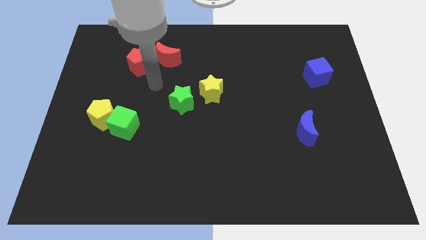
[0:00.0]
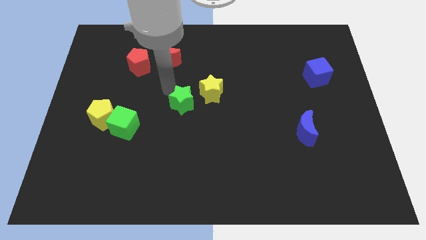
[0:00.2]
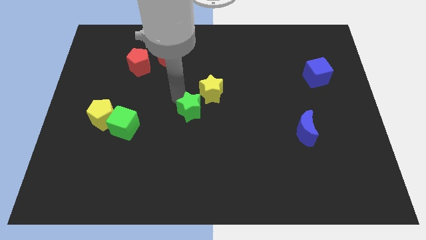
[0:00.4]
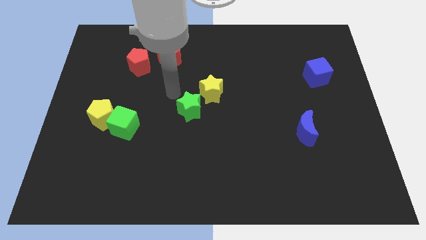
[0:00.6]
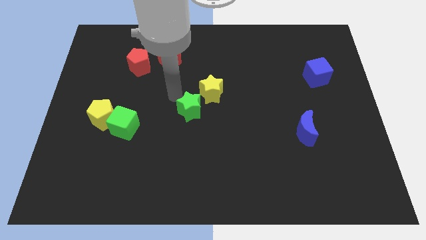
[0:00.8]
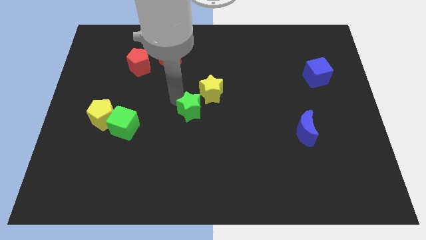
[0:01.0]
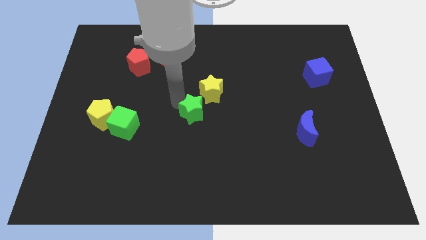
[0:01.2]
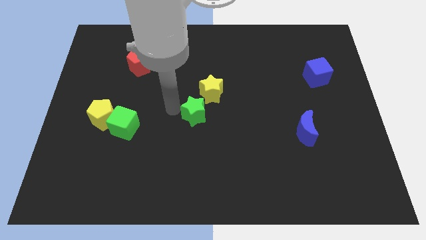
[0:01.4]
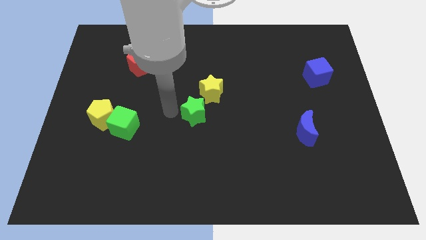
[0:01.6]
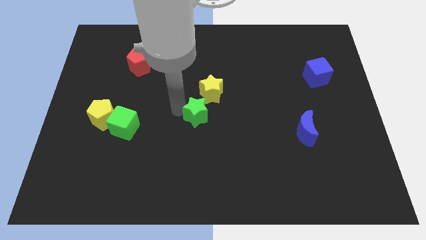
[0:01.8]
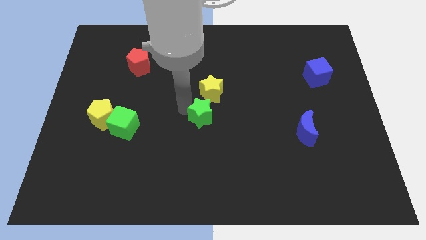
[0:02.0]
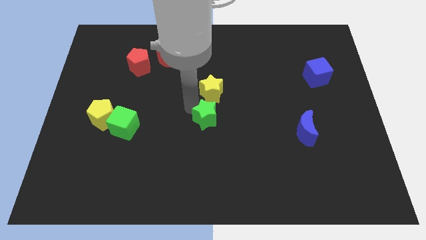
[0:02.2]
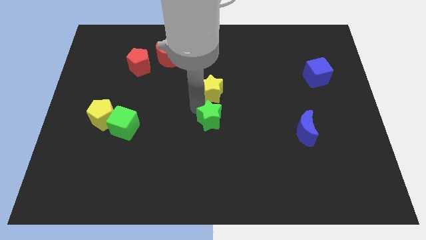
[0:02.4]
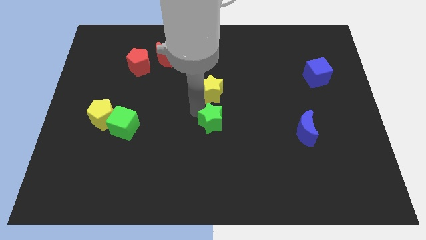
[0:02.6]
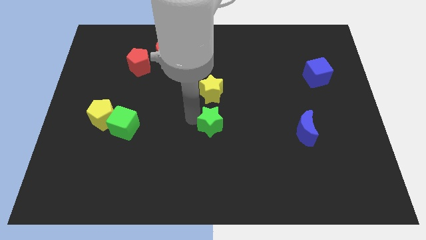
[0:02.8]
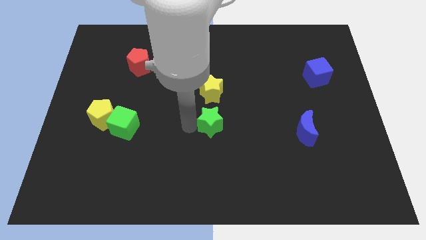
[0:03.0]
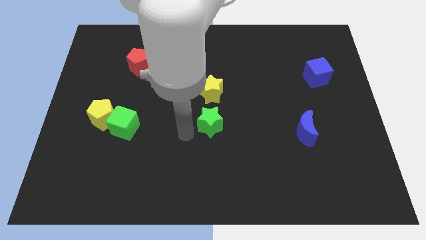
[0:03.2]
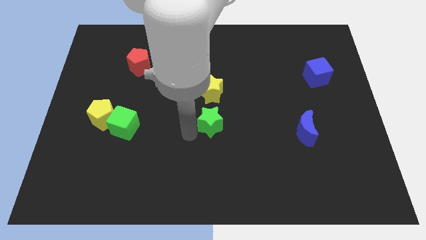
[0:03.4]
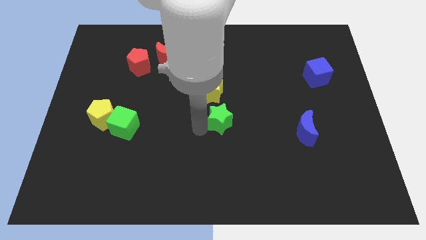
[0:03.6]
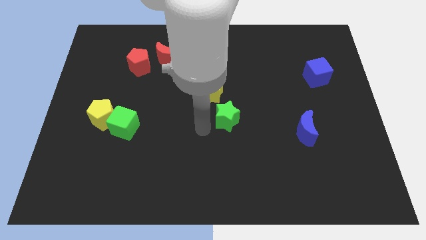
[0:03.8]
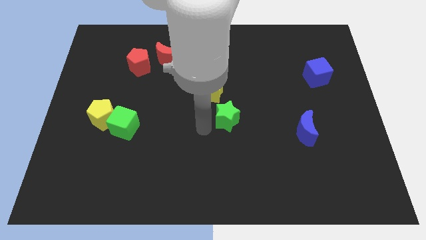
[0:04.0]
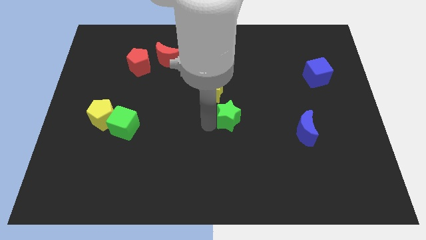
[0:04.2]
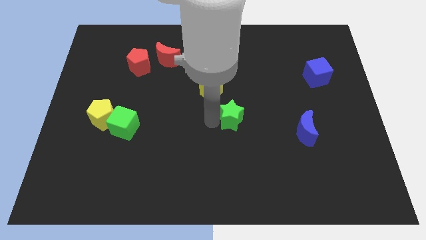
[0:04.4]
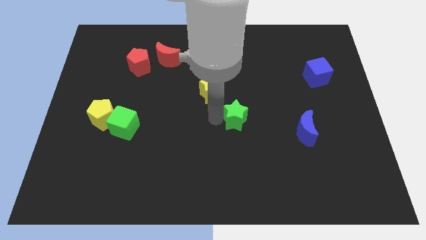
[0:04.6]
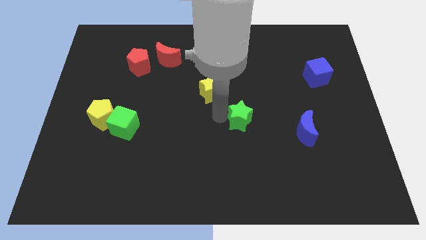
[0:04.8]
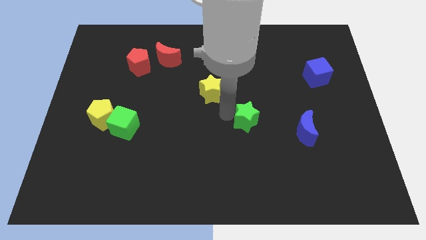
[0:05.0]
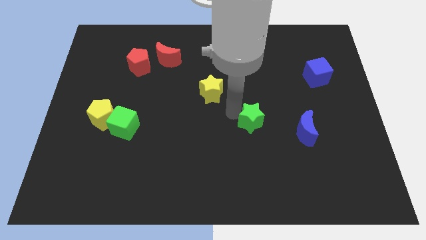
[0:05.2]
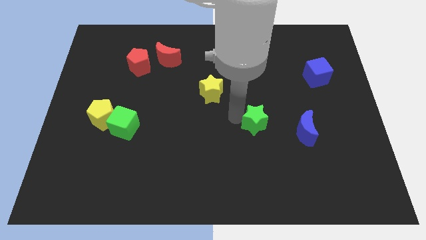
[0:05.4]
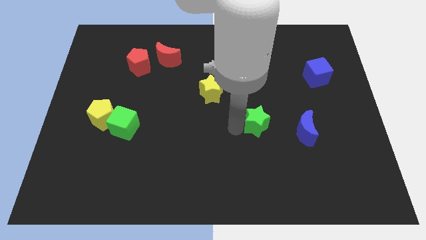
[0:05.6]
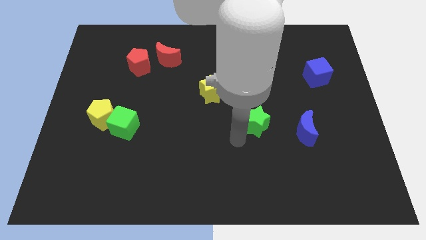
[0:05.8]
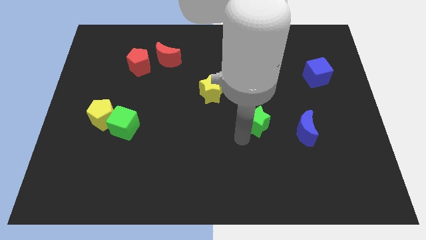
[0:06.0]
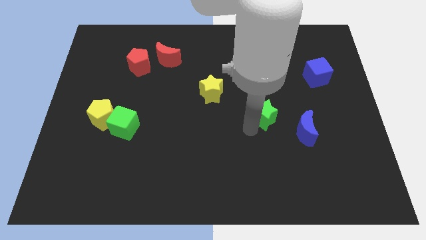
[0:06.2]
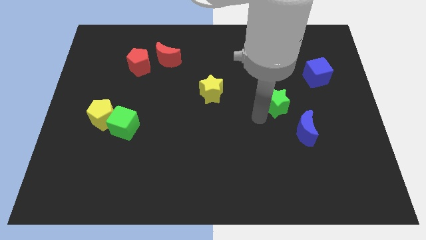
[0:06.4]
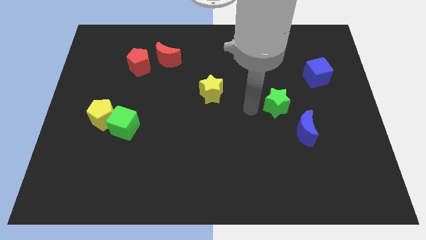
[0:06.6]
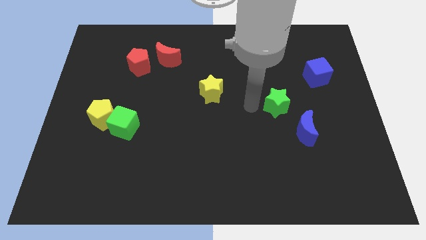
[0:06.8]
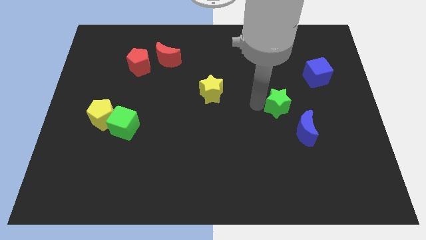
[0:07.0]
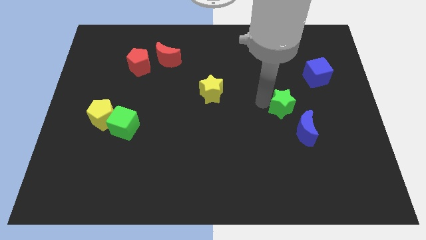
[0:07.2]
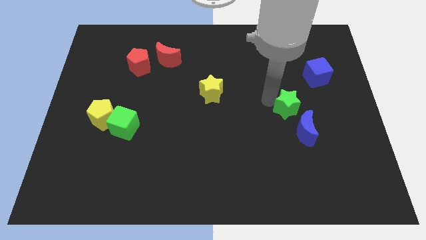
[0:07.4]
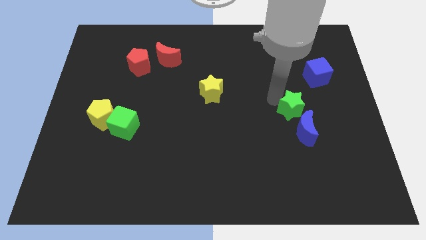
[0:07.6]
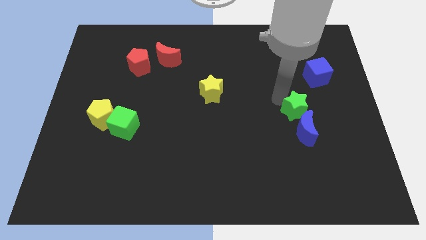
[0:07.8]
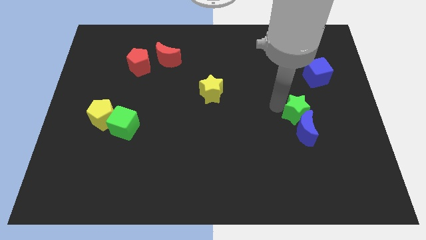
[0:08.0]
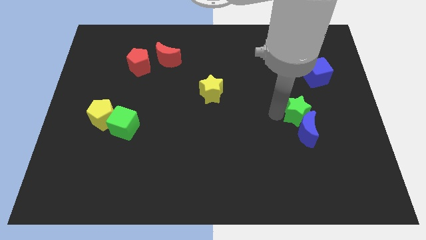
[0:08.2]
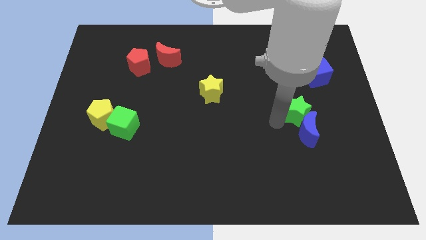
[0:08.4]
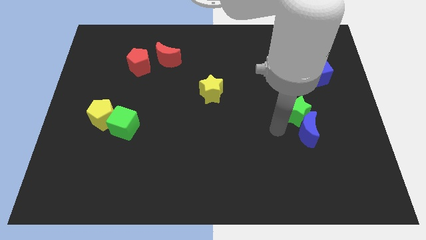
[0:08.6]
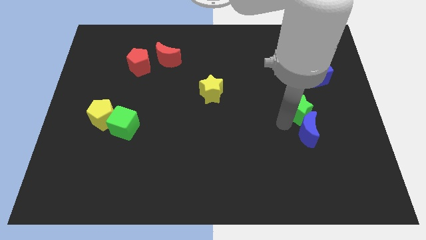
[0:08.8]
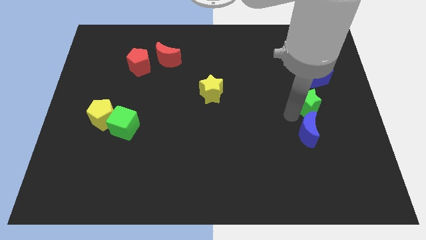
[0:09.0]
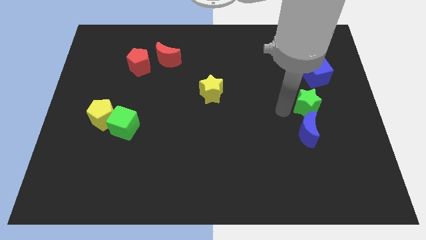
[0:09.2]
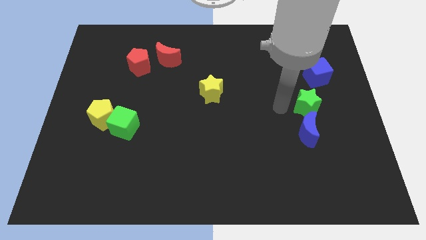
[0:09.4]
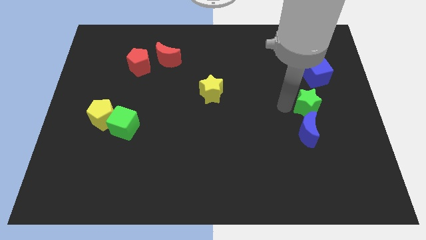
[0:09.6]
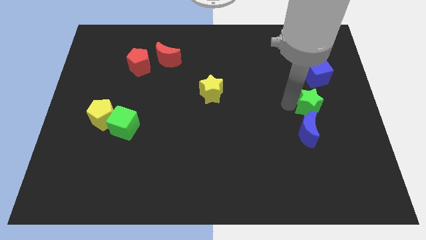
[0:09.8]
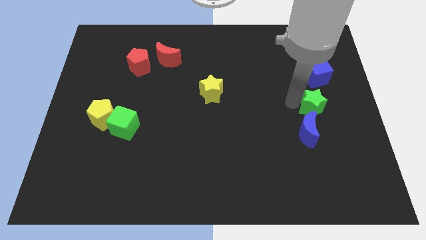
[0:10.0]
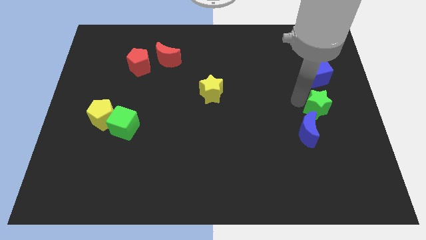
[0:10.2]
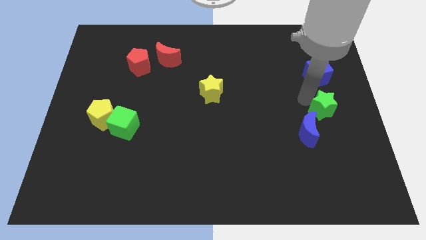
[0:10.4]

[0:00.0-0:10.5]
slide the green star to the right side of the board

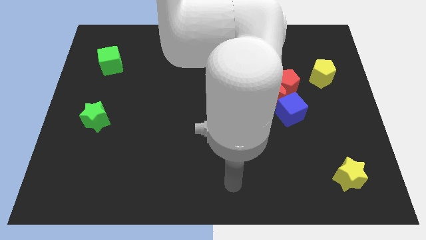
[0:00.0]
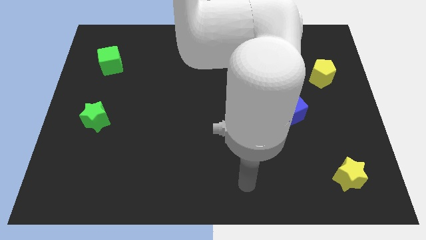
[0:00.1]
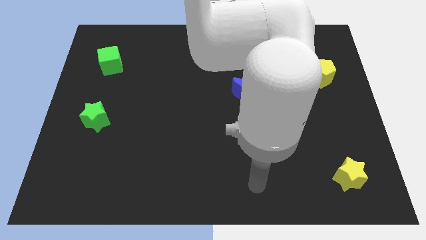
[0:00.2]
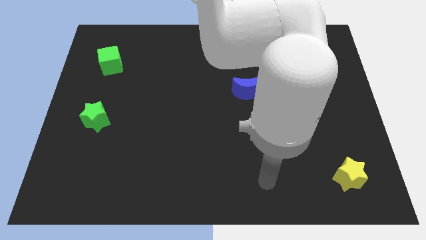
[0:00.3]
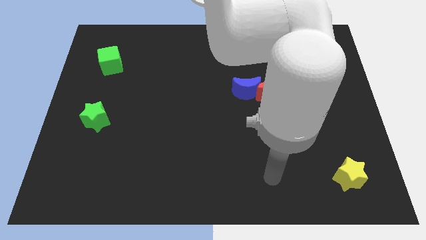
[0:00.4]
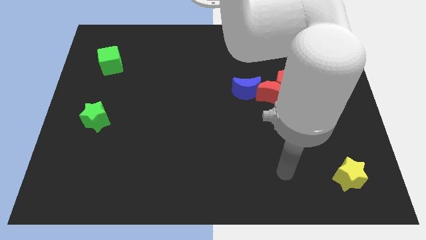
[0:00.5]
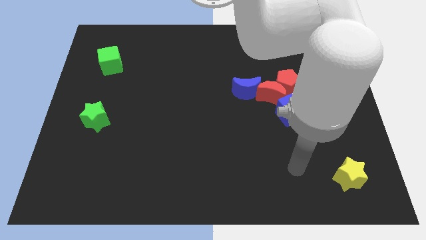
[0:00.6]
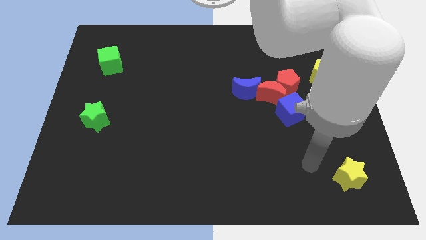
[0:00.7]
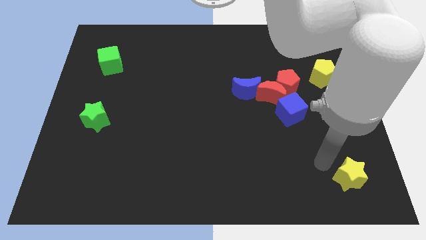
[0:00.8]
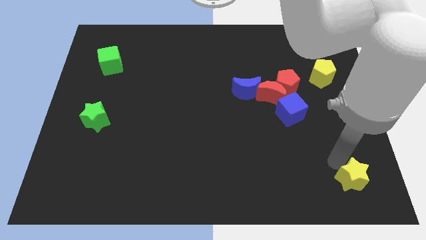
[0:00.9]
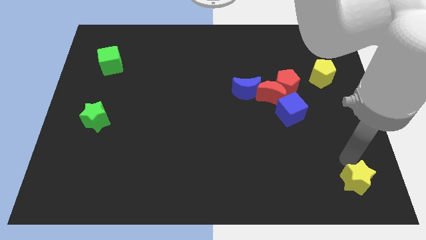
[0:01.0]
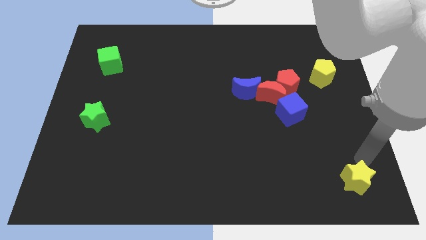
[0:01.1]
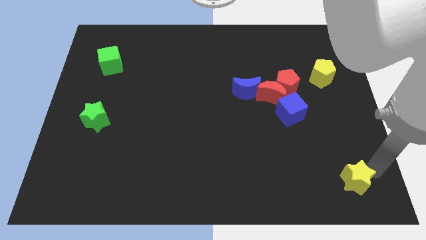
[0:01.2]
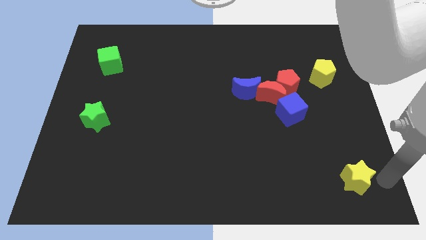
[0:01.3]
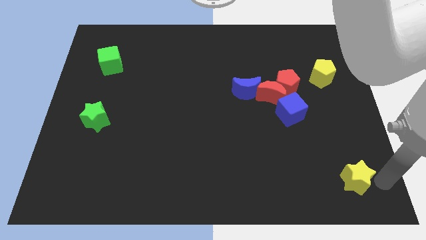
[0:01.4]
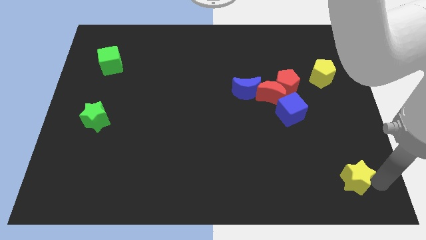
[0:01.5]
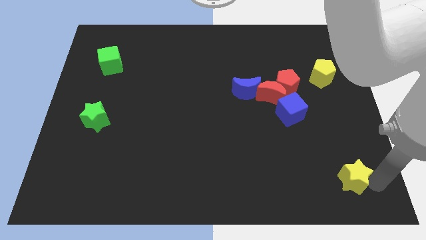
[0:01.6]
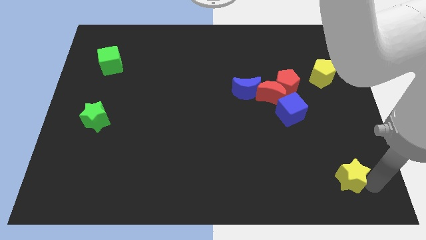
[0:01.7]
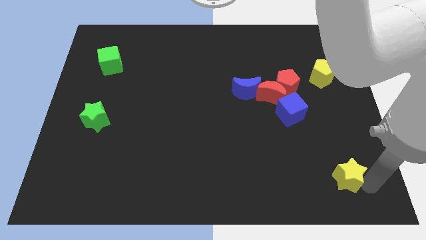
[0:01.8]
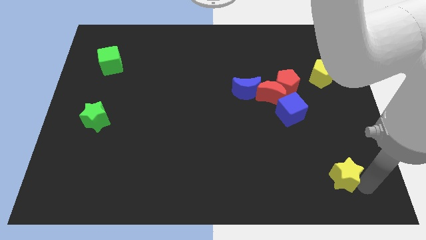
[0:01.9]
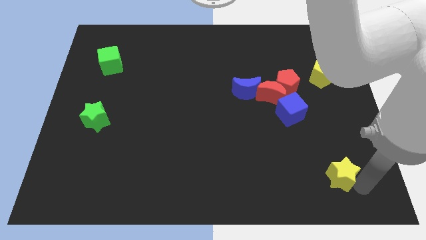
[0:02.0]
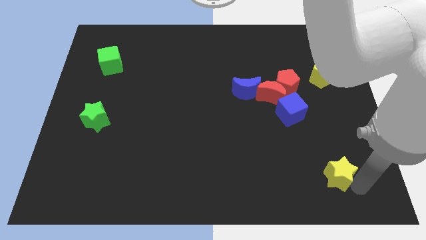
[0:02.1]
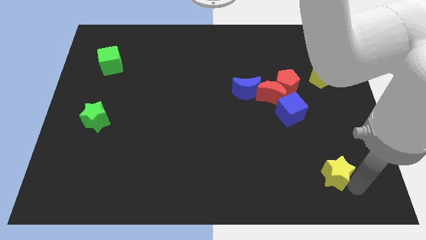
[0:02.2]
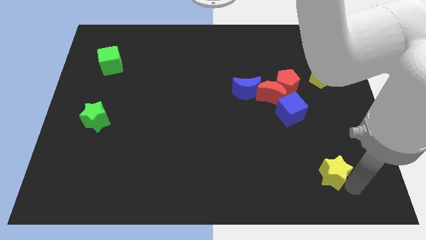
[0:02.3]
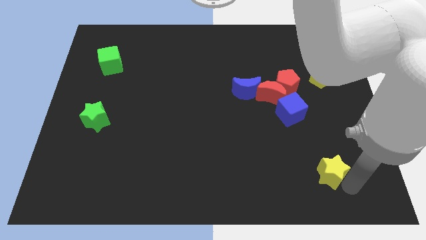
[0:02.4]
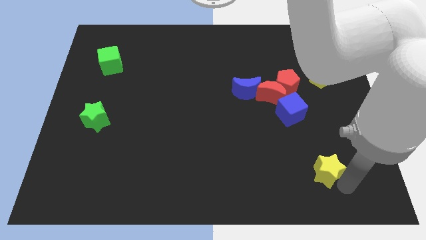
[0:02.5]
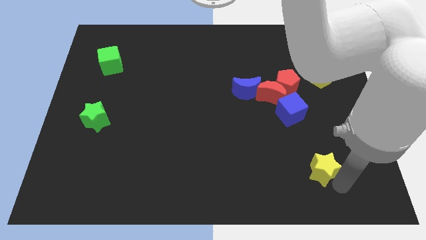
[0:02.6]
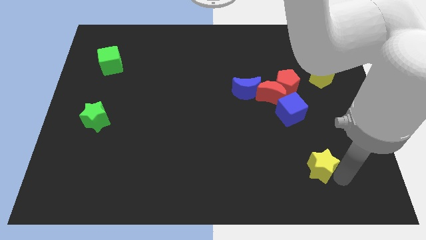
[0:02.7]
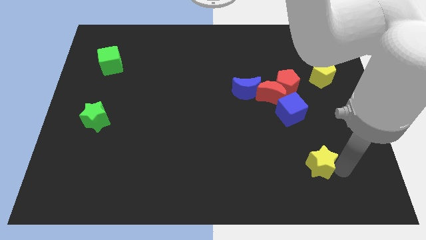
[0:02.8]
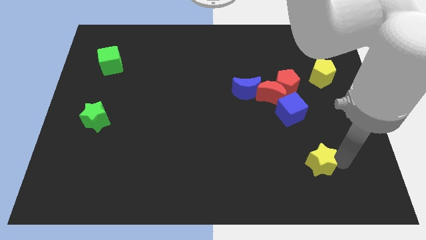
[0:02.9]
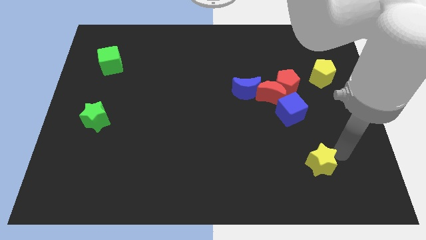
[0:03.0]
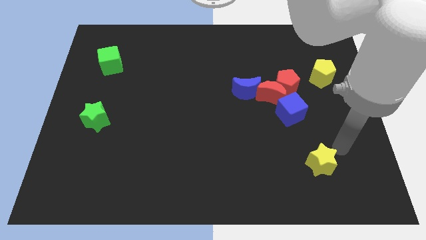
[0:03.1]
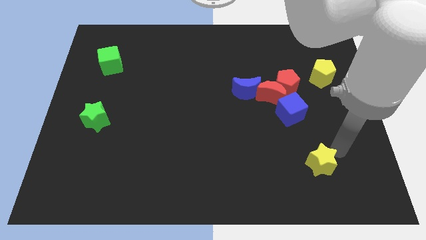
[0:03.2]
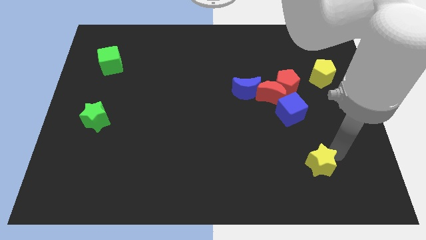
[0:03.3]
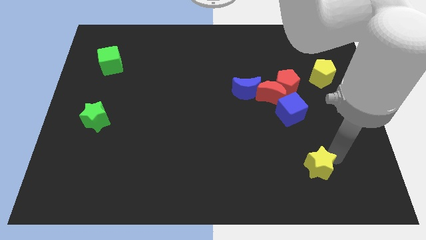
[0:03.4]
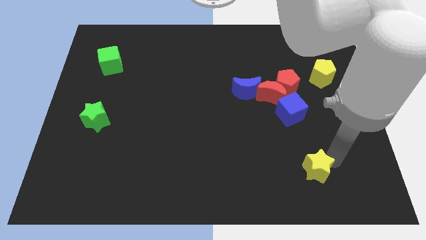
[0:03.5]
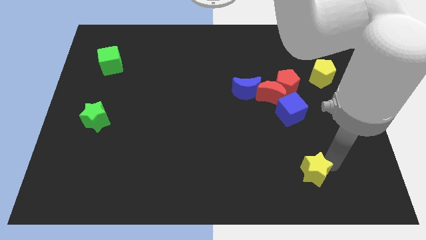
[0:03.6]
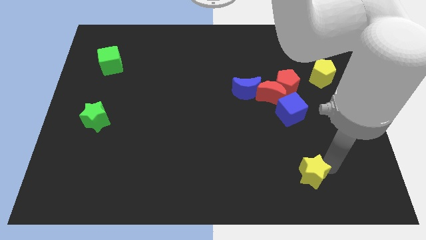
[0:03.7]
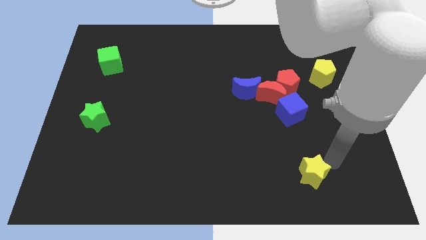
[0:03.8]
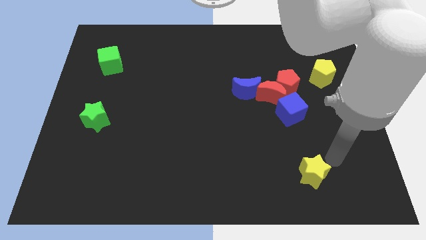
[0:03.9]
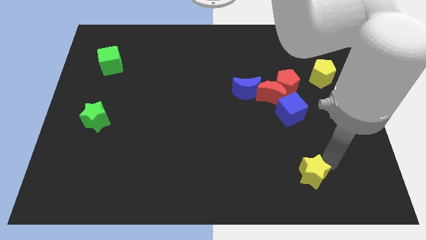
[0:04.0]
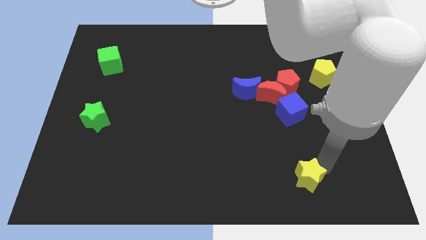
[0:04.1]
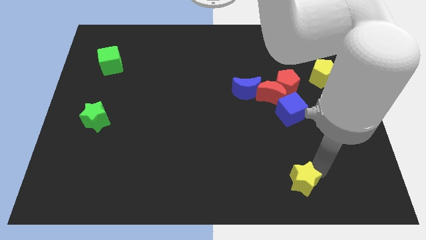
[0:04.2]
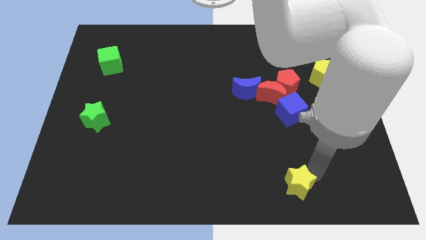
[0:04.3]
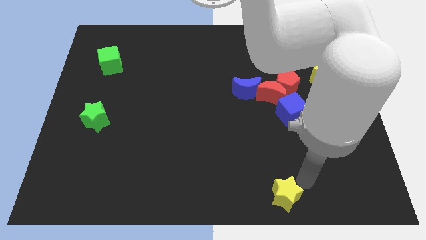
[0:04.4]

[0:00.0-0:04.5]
push the yellow star to the bottom
